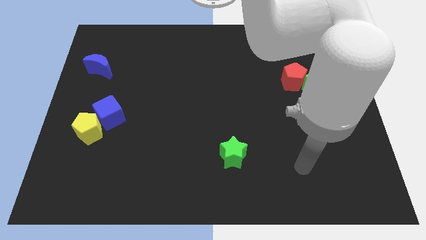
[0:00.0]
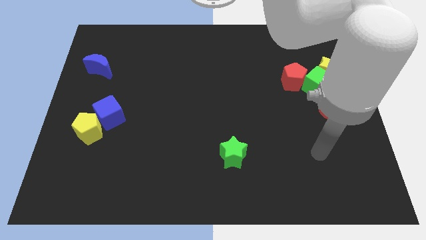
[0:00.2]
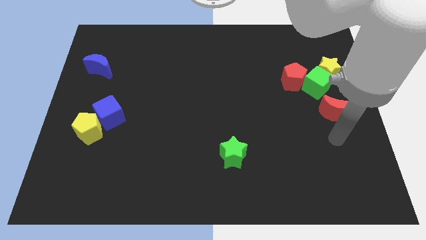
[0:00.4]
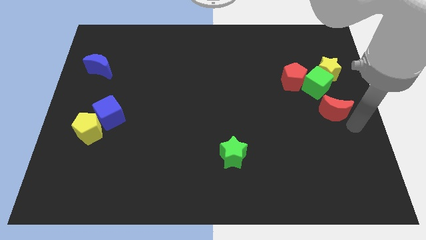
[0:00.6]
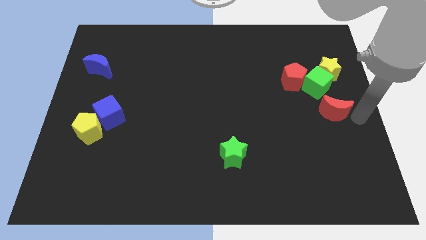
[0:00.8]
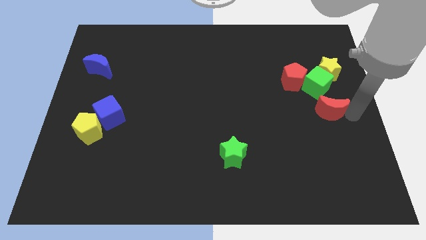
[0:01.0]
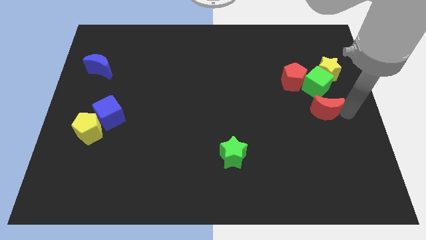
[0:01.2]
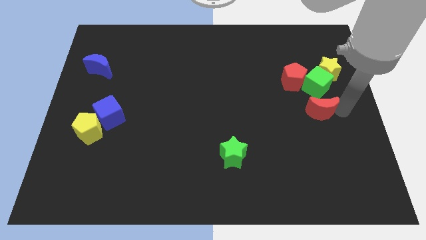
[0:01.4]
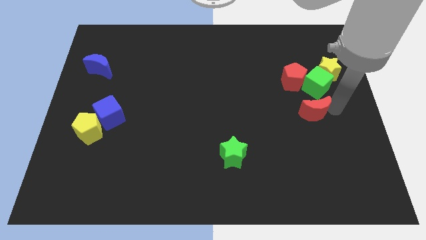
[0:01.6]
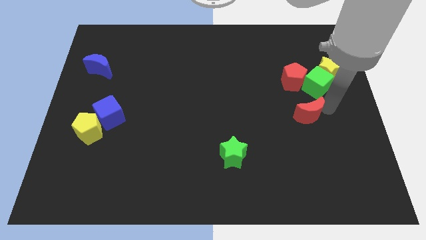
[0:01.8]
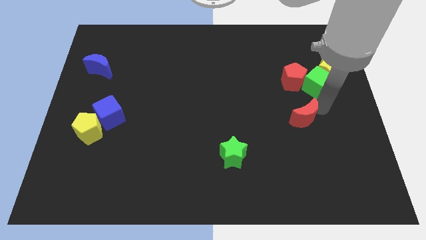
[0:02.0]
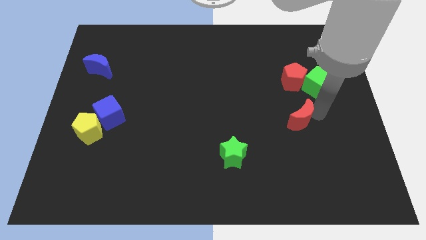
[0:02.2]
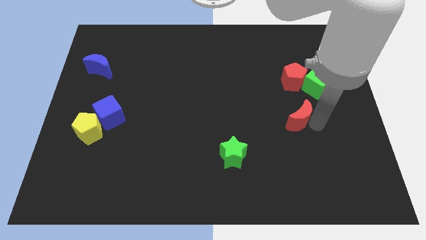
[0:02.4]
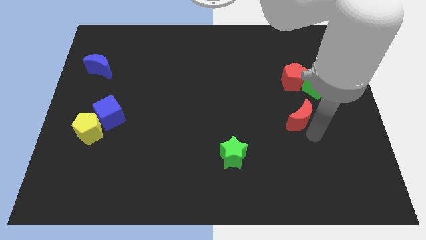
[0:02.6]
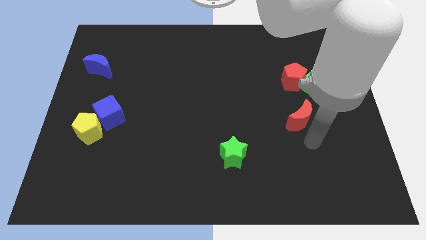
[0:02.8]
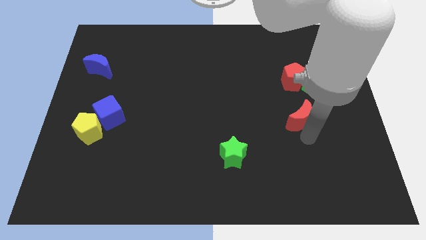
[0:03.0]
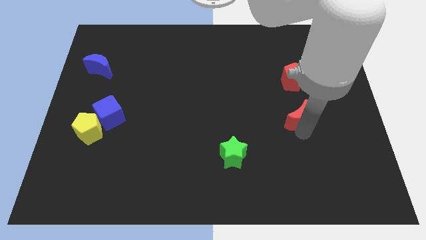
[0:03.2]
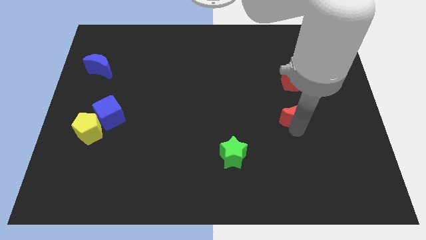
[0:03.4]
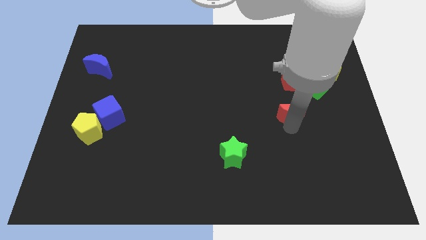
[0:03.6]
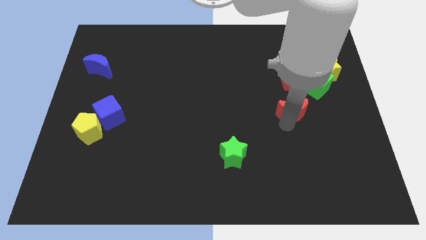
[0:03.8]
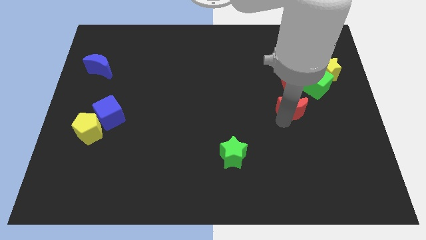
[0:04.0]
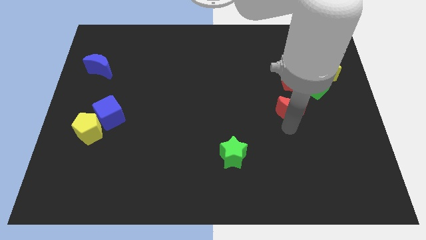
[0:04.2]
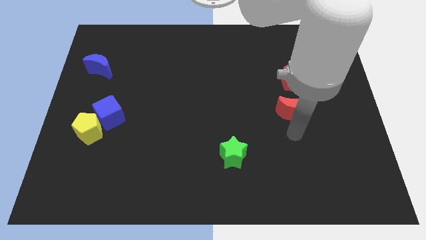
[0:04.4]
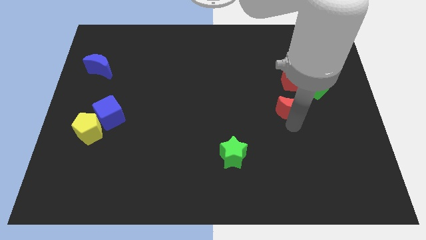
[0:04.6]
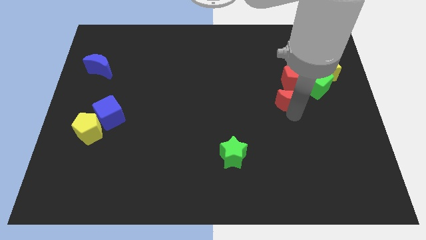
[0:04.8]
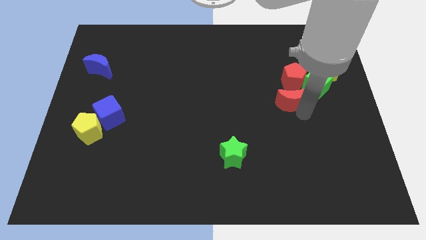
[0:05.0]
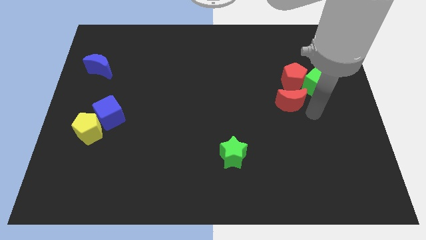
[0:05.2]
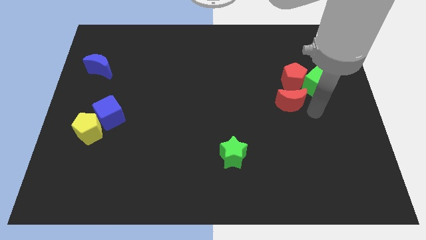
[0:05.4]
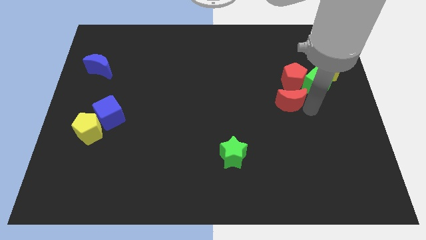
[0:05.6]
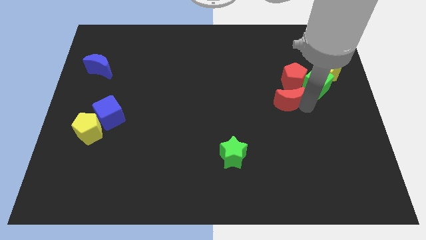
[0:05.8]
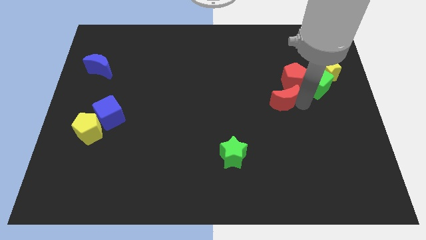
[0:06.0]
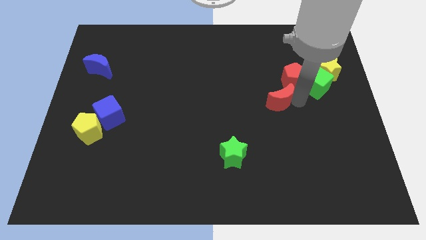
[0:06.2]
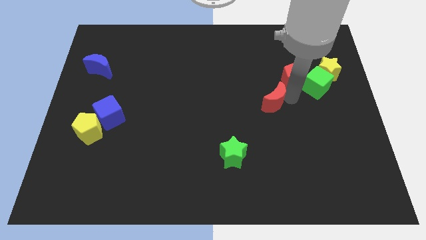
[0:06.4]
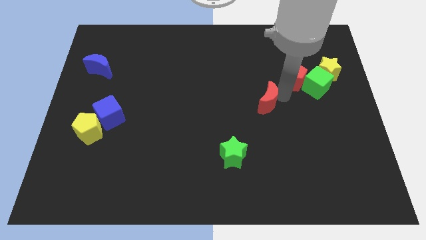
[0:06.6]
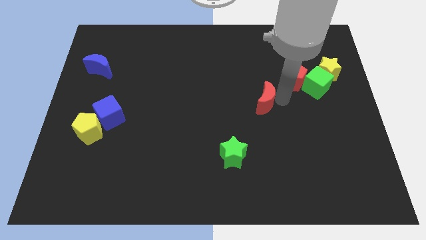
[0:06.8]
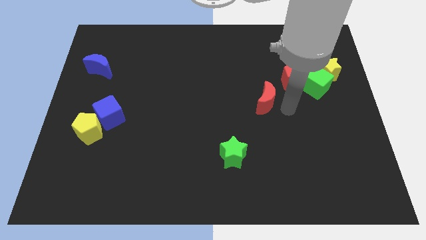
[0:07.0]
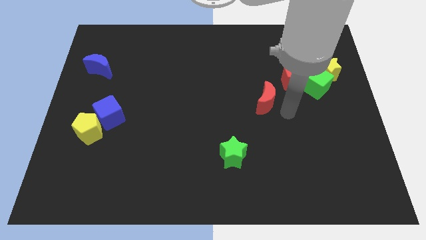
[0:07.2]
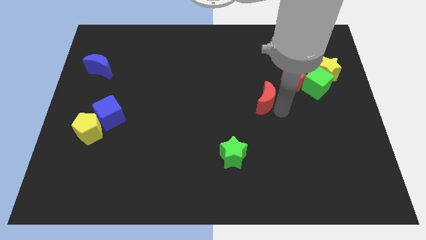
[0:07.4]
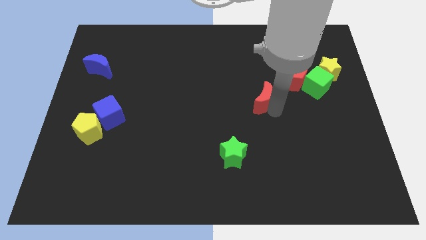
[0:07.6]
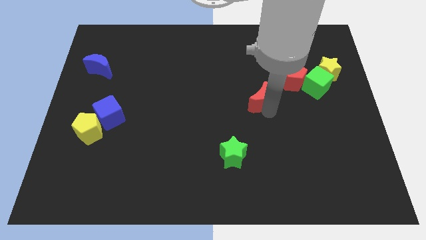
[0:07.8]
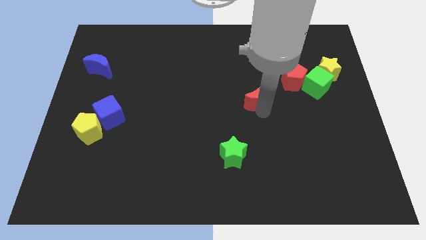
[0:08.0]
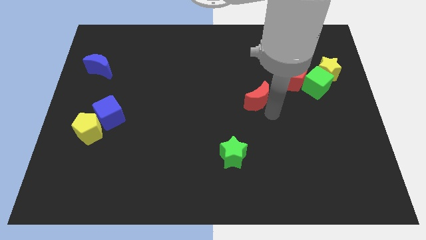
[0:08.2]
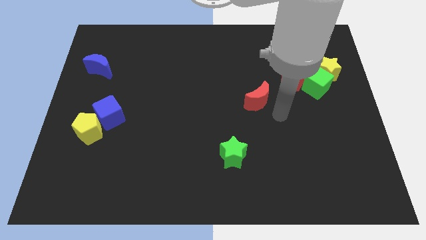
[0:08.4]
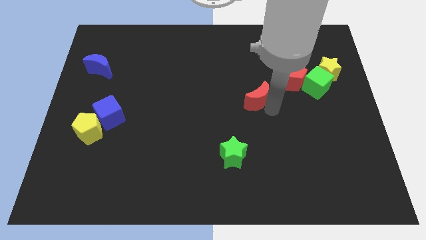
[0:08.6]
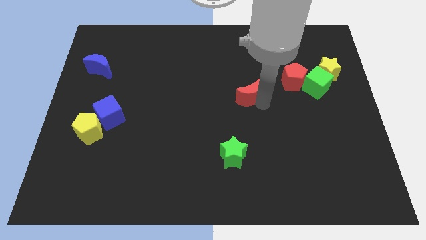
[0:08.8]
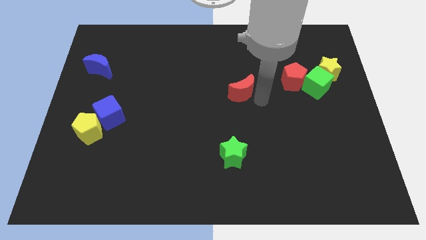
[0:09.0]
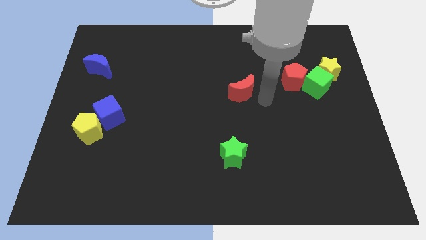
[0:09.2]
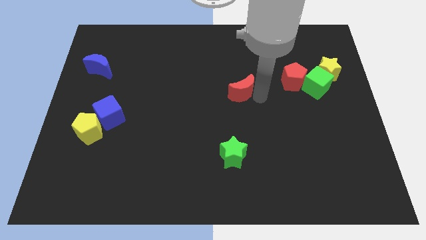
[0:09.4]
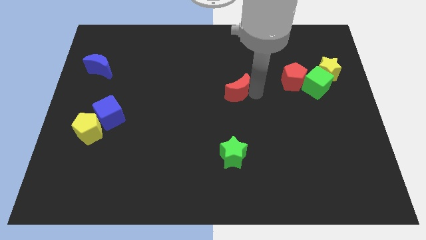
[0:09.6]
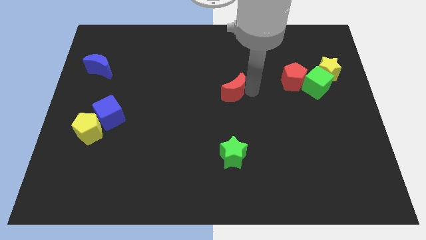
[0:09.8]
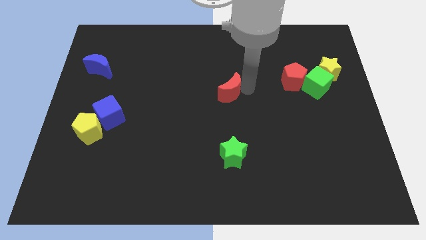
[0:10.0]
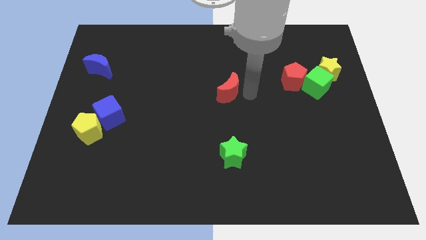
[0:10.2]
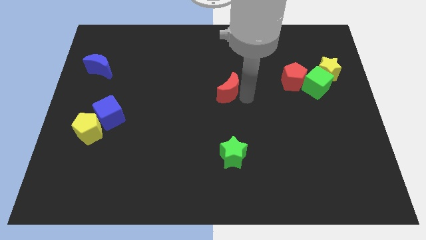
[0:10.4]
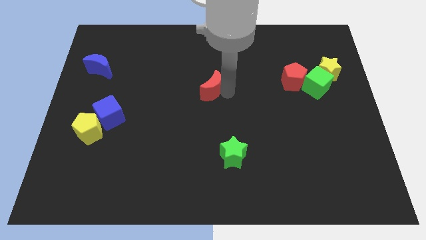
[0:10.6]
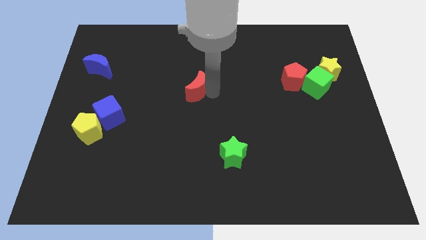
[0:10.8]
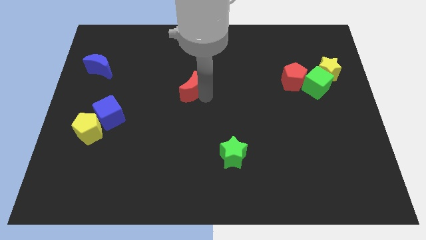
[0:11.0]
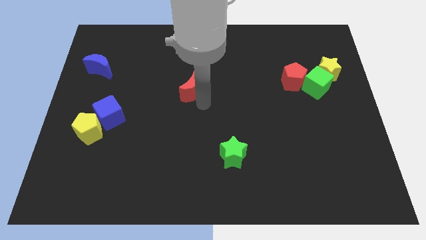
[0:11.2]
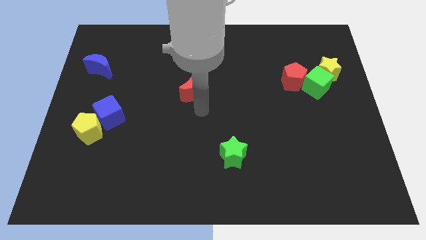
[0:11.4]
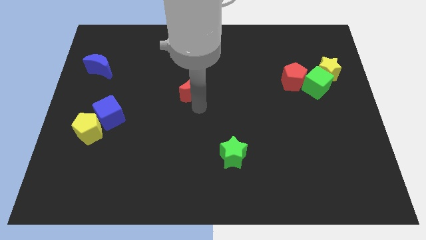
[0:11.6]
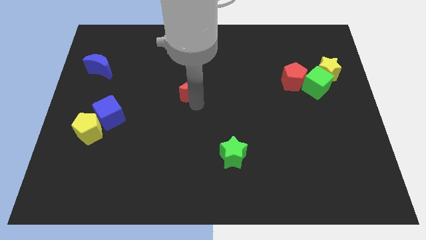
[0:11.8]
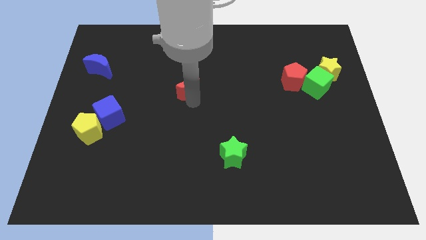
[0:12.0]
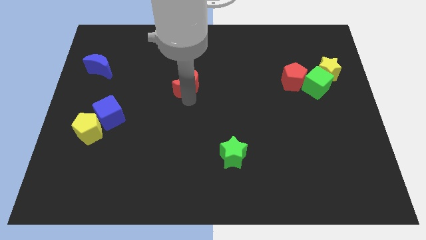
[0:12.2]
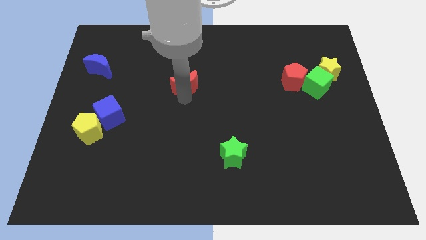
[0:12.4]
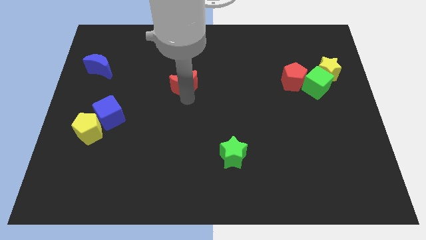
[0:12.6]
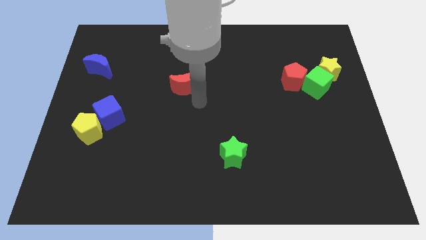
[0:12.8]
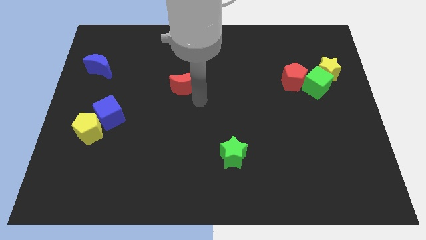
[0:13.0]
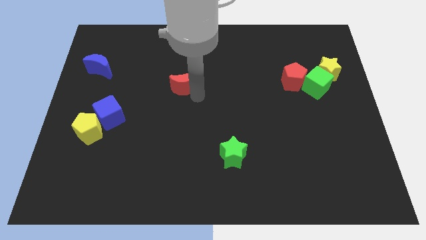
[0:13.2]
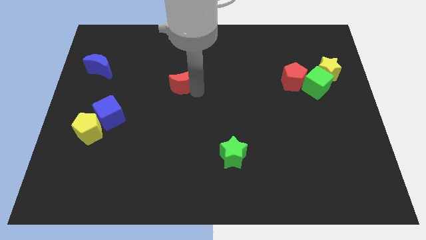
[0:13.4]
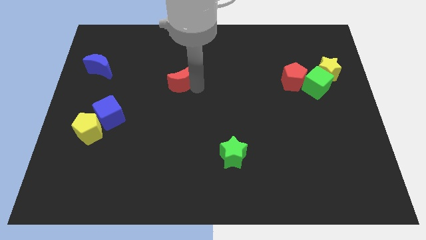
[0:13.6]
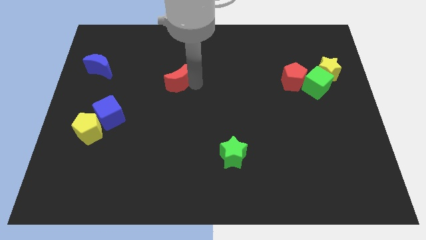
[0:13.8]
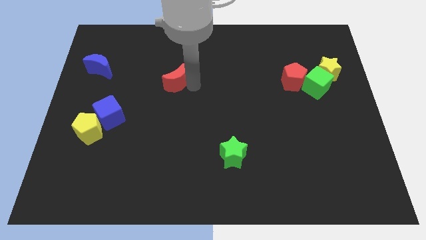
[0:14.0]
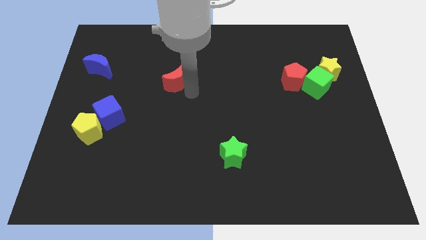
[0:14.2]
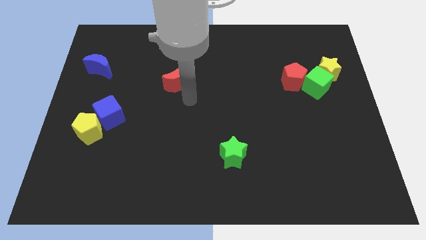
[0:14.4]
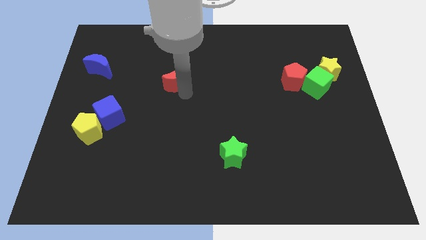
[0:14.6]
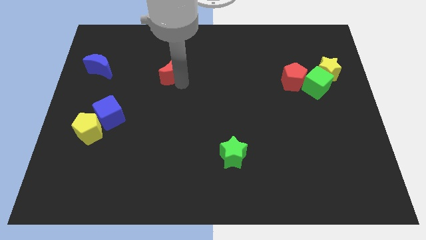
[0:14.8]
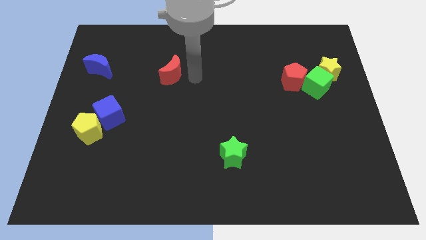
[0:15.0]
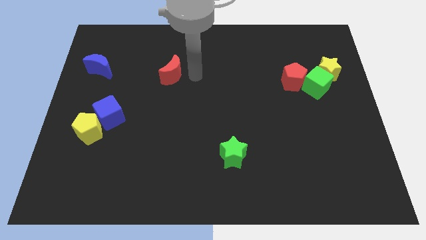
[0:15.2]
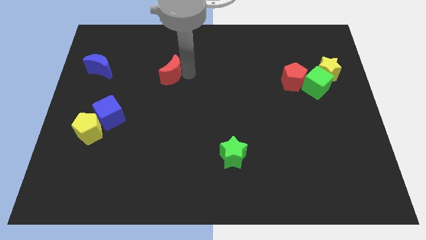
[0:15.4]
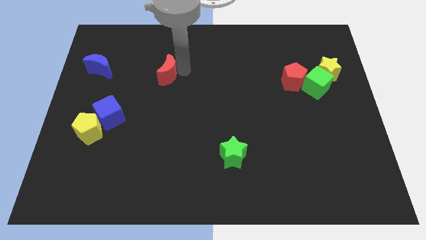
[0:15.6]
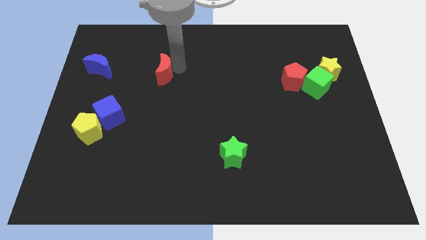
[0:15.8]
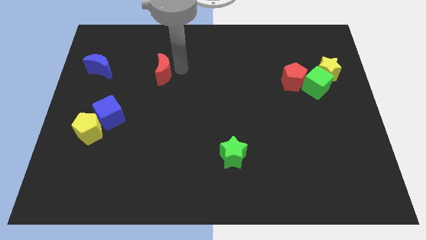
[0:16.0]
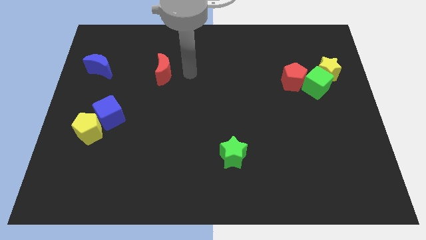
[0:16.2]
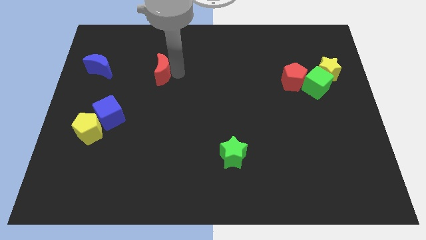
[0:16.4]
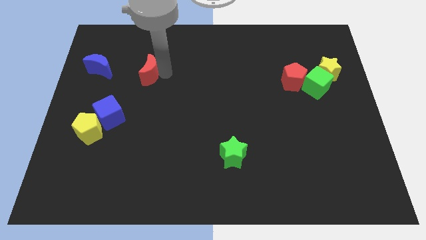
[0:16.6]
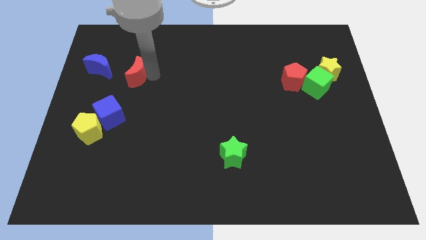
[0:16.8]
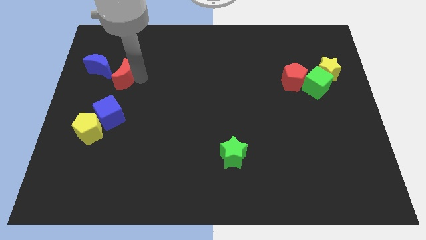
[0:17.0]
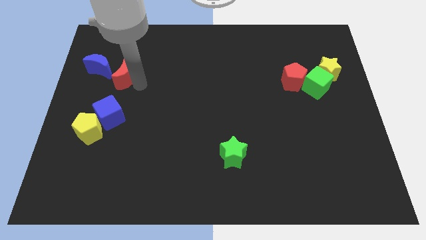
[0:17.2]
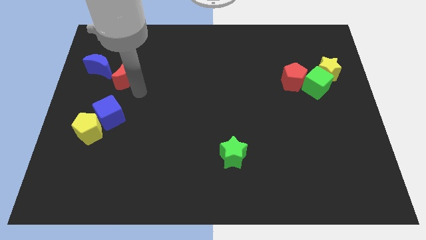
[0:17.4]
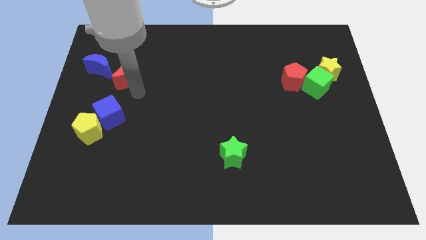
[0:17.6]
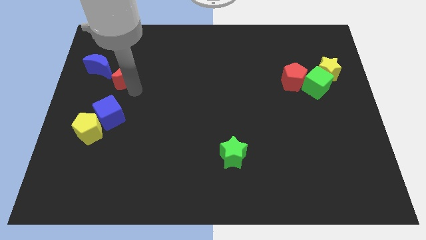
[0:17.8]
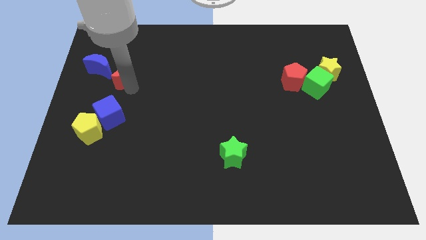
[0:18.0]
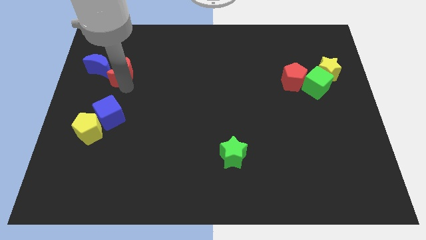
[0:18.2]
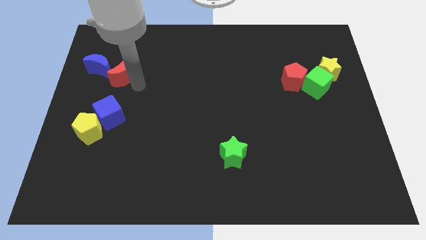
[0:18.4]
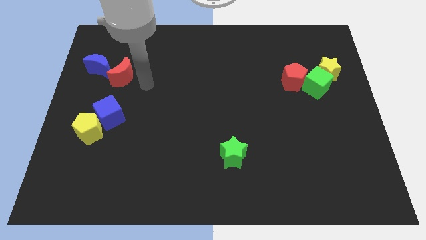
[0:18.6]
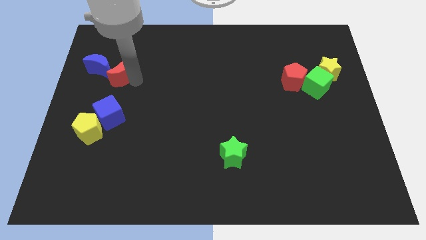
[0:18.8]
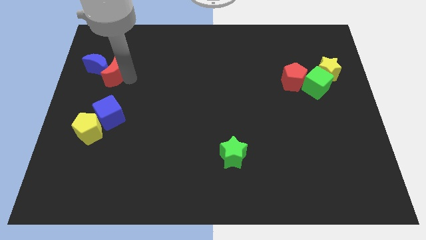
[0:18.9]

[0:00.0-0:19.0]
move the red moon towards the blue moon
